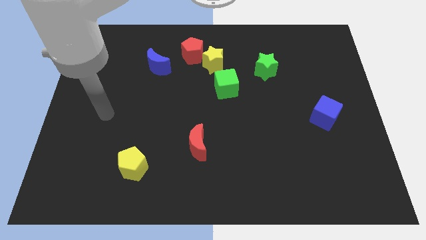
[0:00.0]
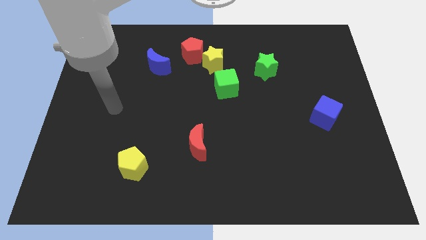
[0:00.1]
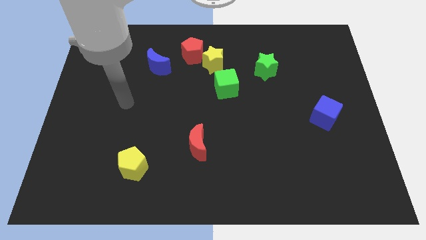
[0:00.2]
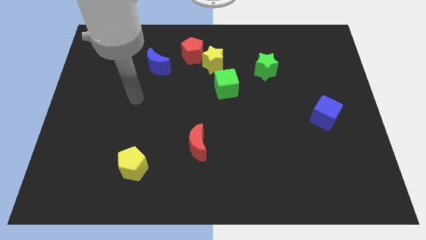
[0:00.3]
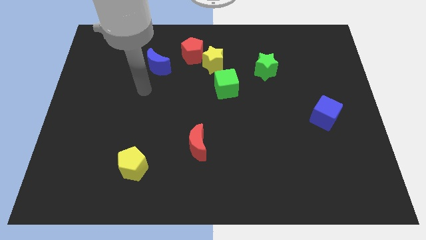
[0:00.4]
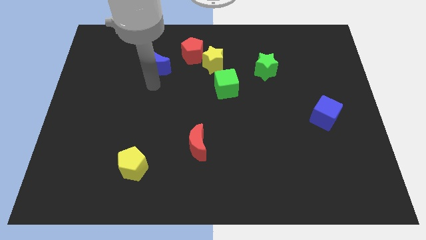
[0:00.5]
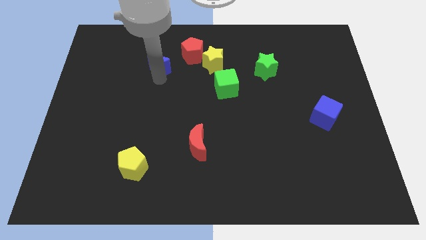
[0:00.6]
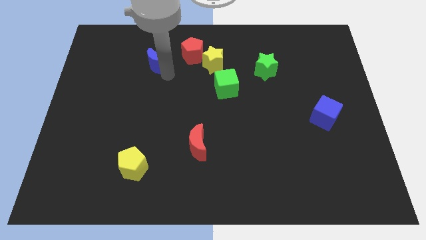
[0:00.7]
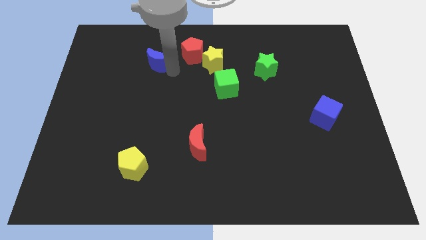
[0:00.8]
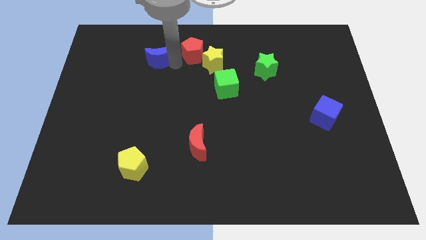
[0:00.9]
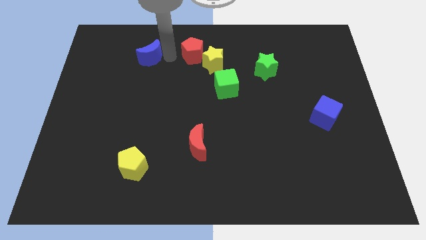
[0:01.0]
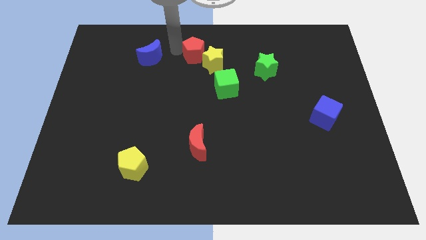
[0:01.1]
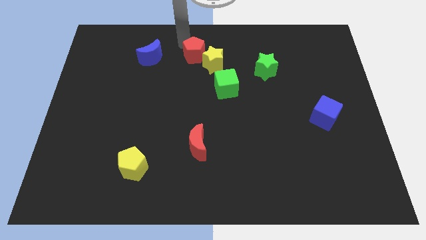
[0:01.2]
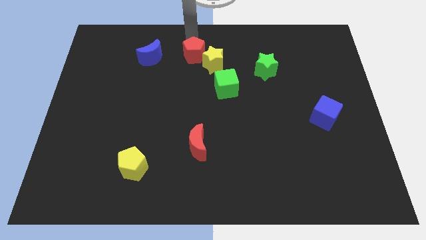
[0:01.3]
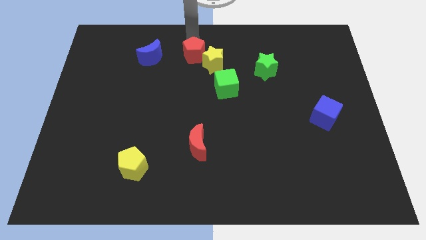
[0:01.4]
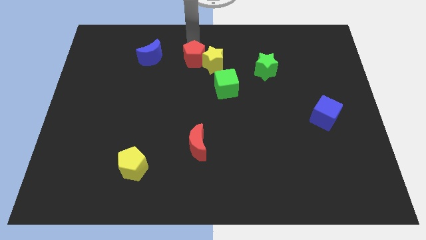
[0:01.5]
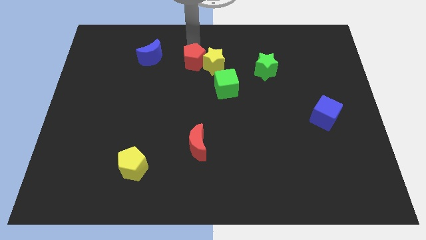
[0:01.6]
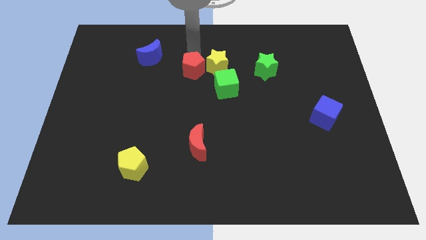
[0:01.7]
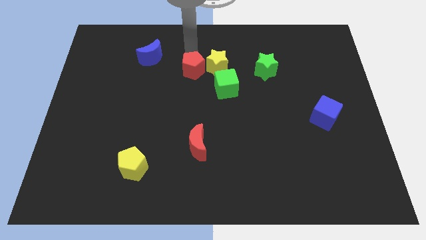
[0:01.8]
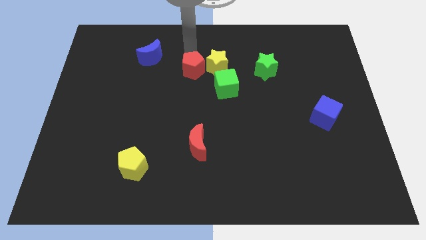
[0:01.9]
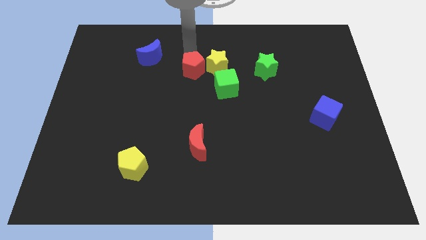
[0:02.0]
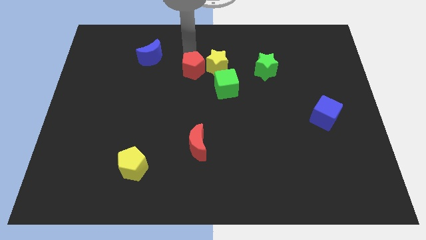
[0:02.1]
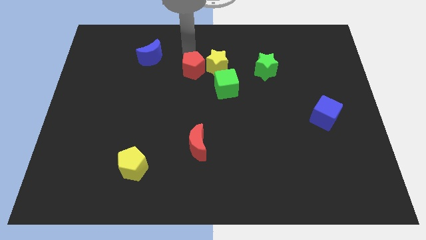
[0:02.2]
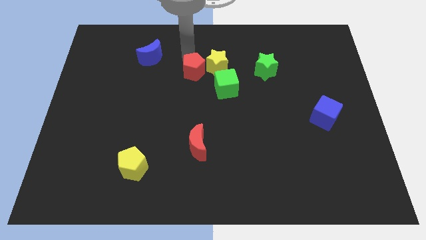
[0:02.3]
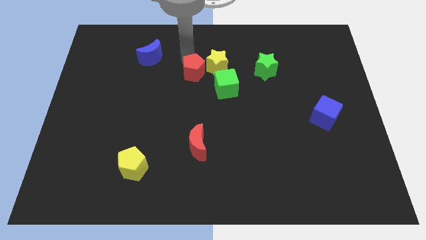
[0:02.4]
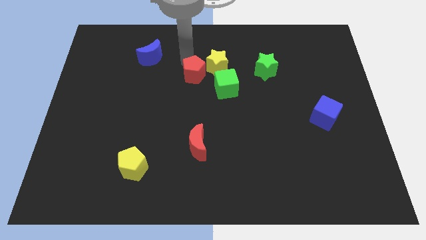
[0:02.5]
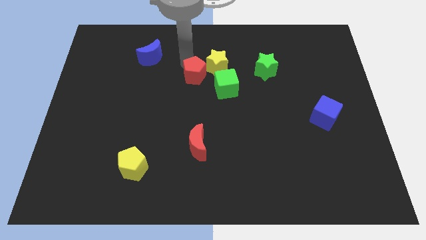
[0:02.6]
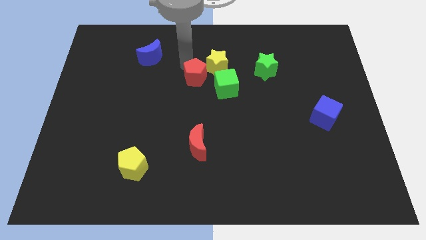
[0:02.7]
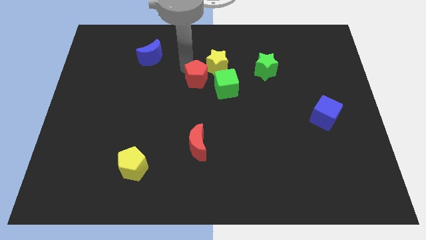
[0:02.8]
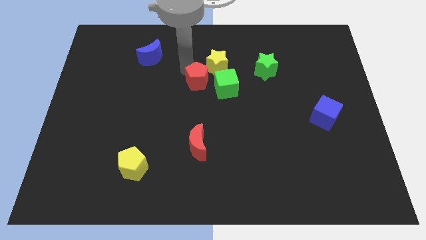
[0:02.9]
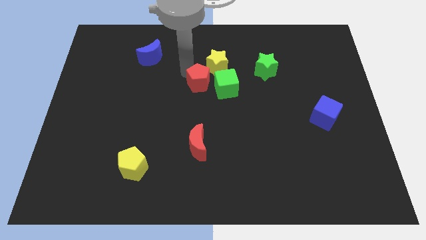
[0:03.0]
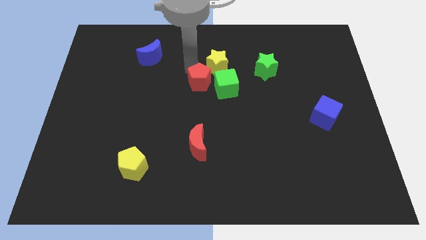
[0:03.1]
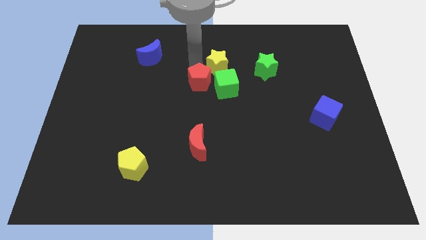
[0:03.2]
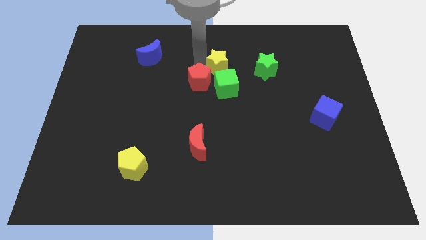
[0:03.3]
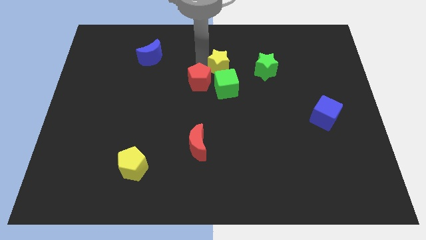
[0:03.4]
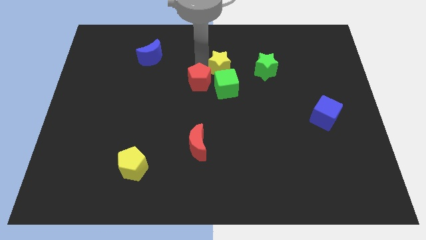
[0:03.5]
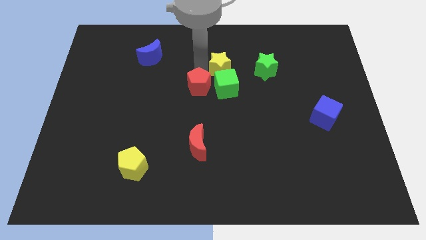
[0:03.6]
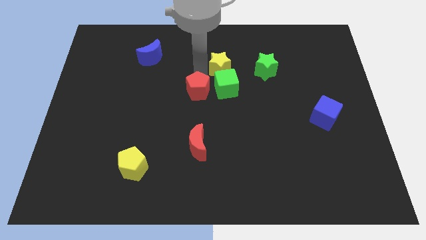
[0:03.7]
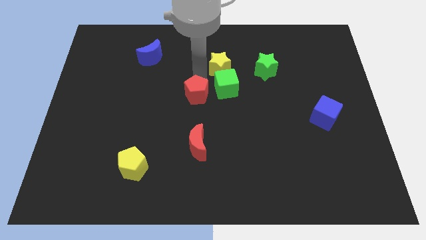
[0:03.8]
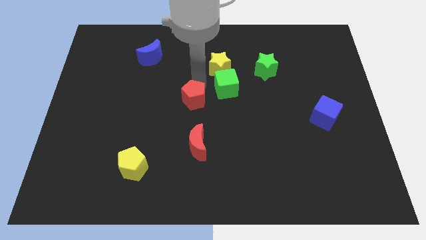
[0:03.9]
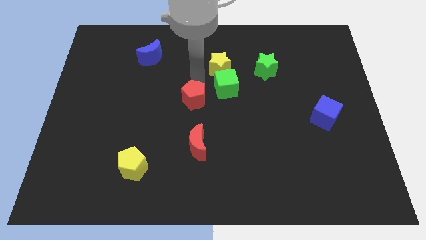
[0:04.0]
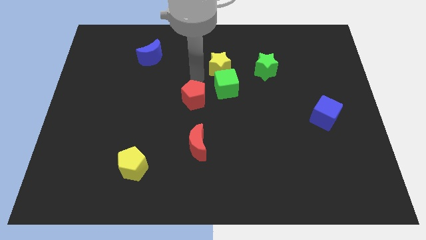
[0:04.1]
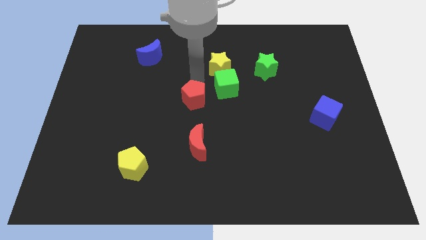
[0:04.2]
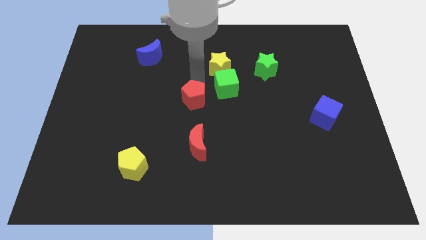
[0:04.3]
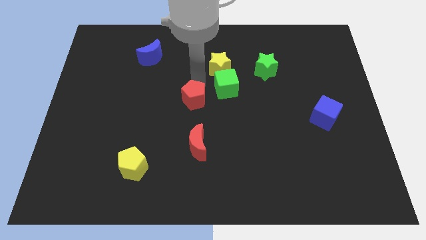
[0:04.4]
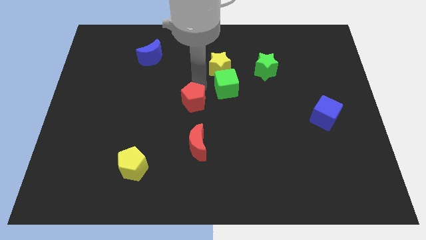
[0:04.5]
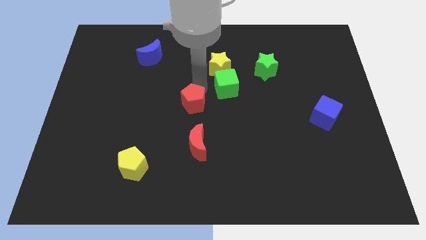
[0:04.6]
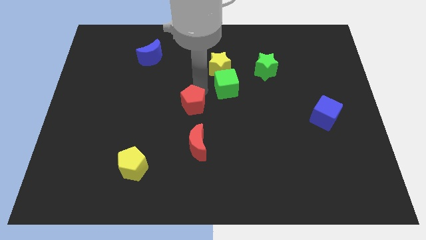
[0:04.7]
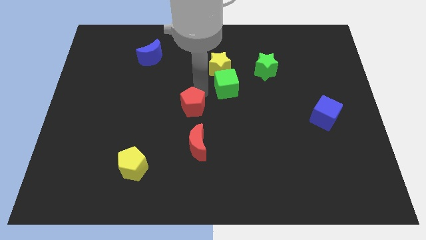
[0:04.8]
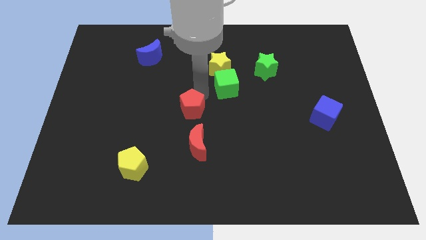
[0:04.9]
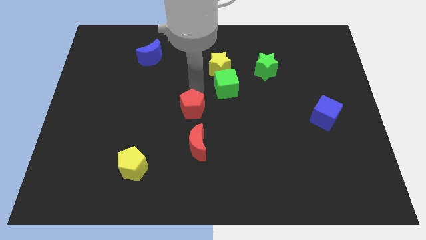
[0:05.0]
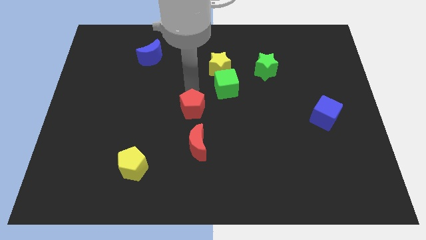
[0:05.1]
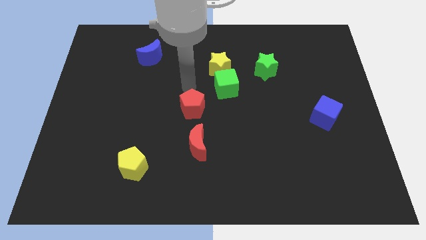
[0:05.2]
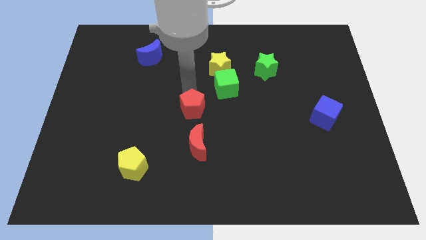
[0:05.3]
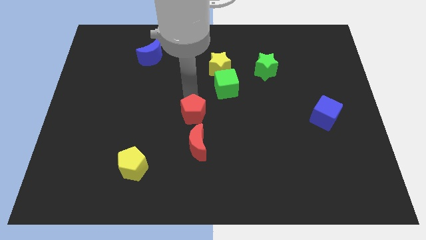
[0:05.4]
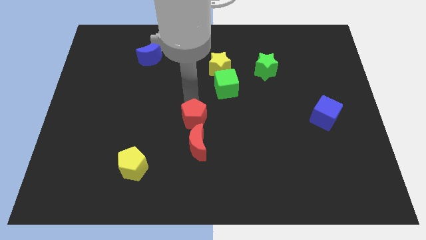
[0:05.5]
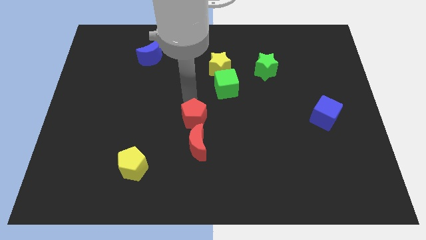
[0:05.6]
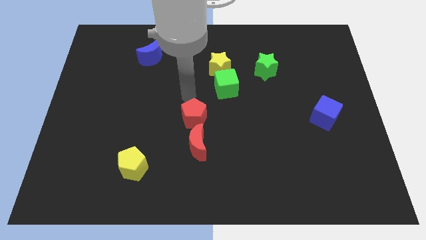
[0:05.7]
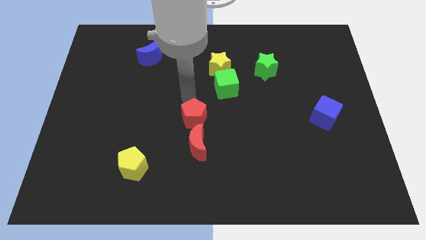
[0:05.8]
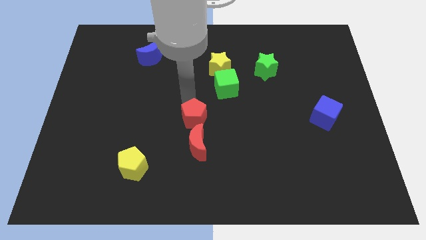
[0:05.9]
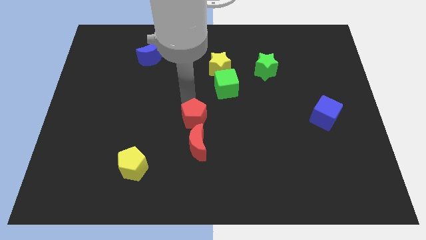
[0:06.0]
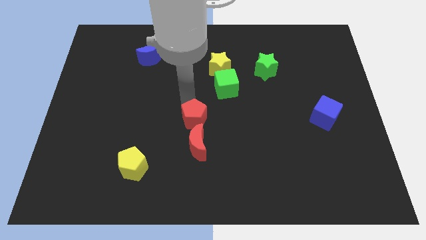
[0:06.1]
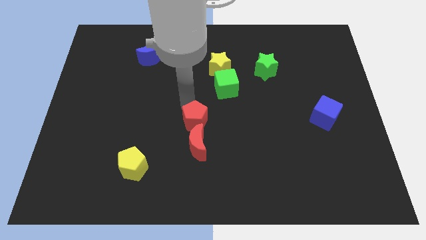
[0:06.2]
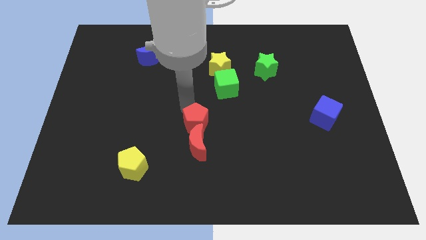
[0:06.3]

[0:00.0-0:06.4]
put the red pentagon next to the red moon
